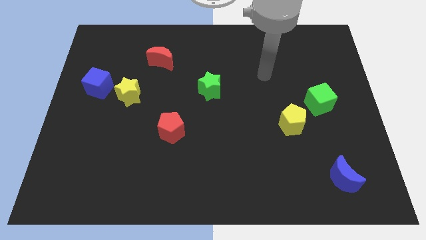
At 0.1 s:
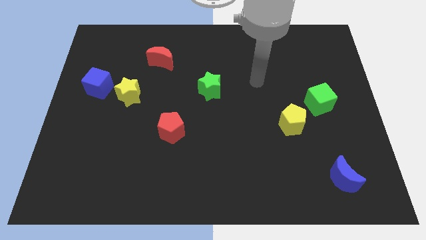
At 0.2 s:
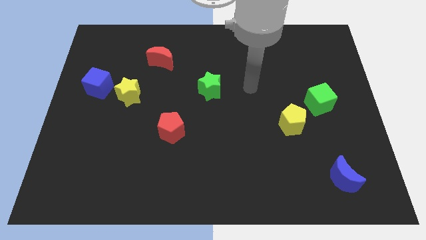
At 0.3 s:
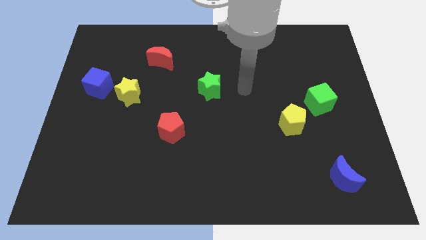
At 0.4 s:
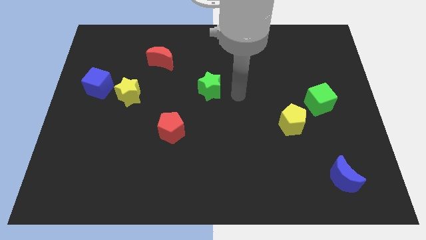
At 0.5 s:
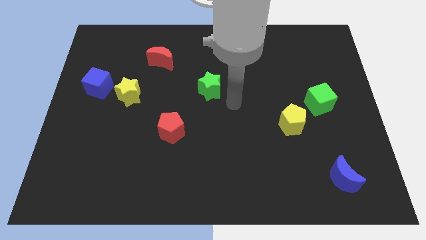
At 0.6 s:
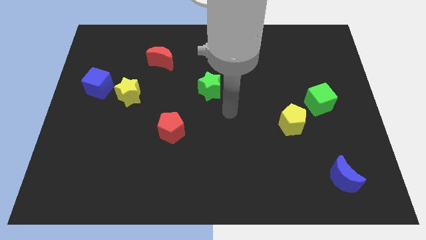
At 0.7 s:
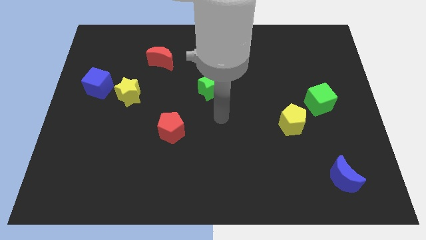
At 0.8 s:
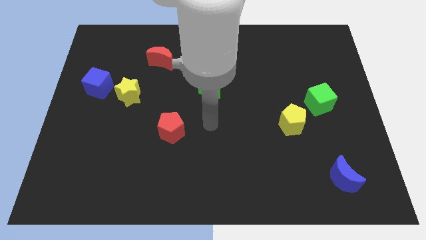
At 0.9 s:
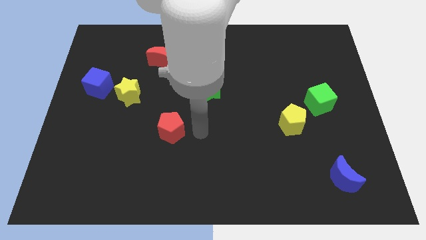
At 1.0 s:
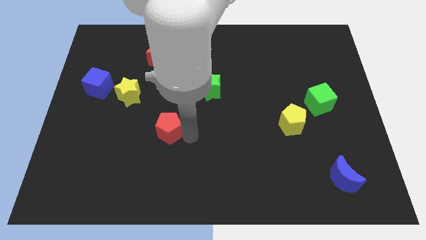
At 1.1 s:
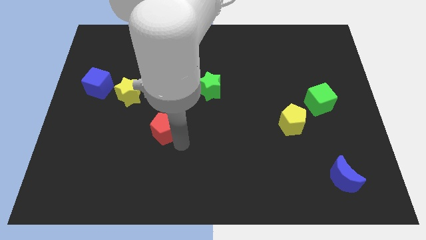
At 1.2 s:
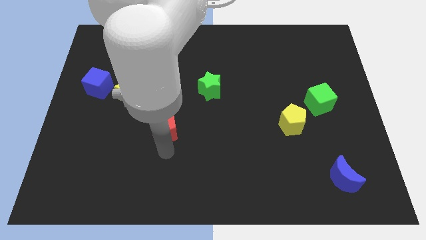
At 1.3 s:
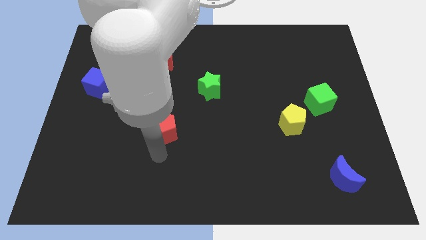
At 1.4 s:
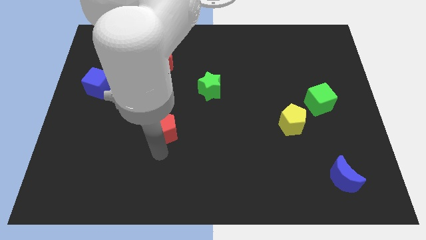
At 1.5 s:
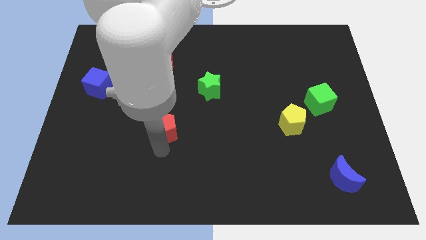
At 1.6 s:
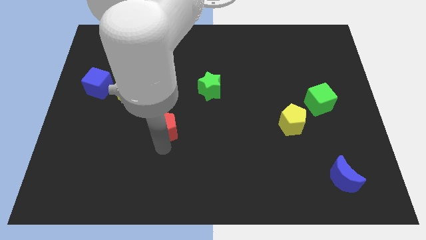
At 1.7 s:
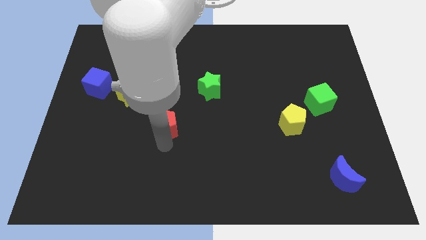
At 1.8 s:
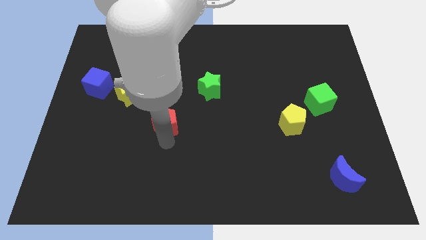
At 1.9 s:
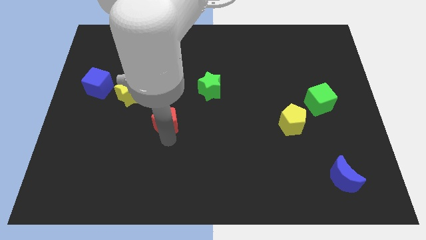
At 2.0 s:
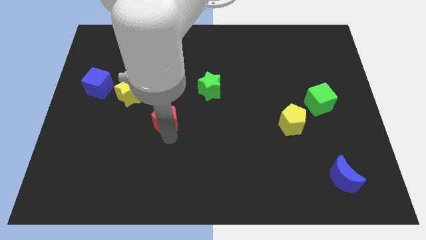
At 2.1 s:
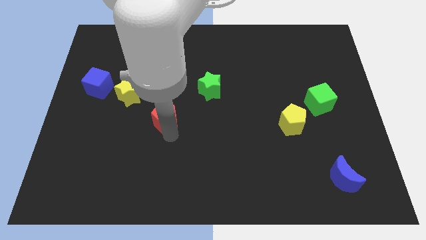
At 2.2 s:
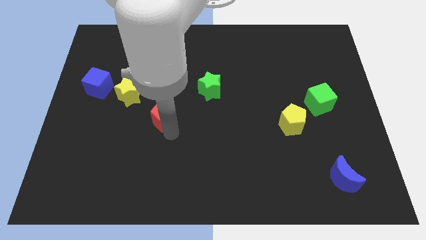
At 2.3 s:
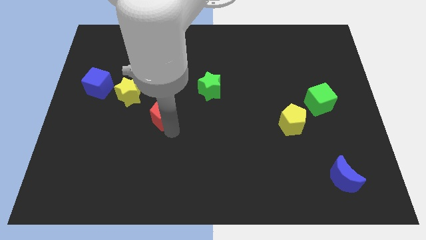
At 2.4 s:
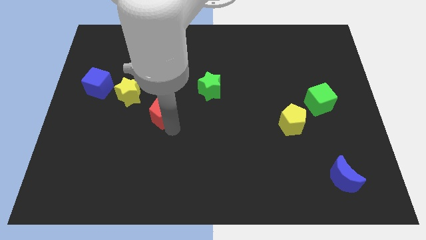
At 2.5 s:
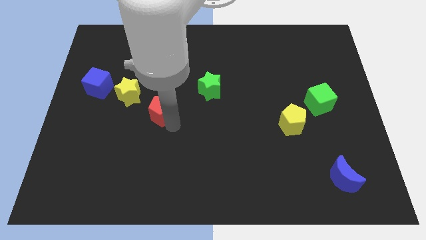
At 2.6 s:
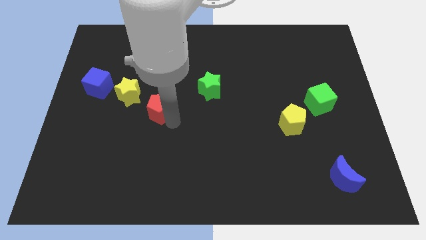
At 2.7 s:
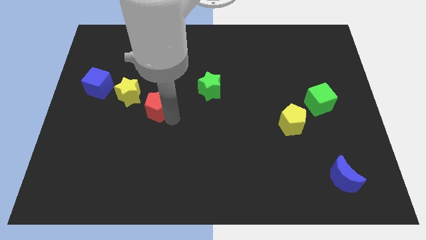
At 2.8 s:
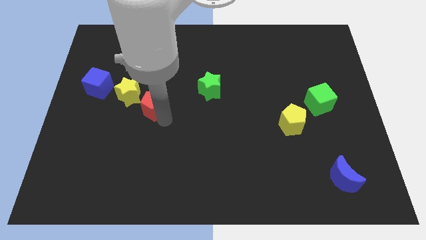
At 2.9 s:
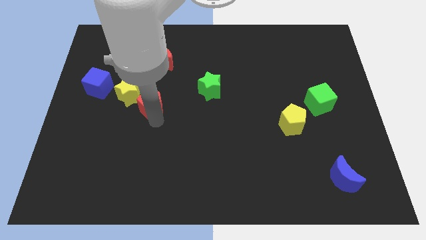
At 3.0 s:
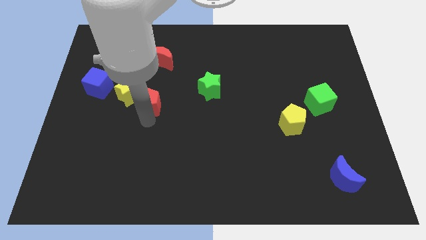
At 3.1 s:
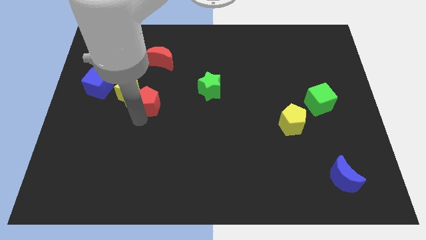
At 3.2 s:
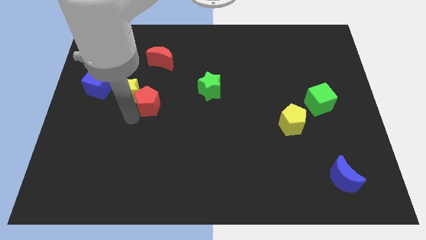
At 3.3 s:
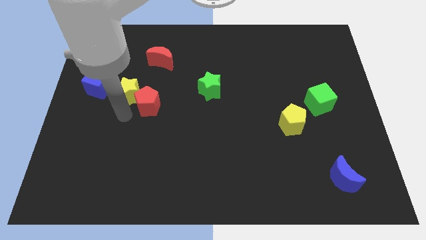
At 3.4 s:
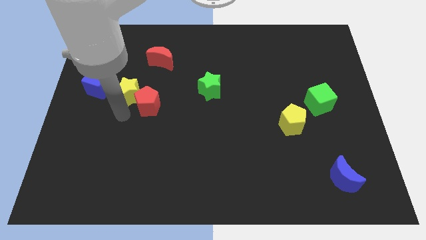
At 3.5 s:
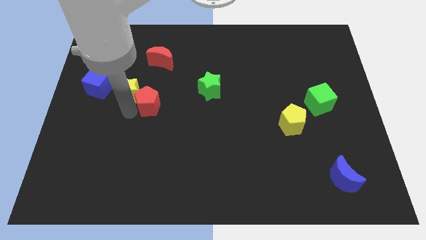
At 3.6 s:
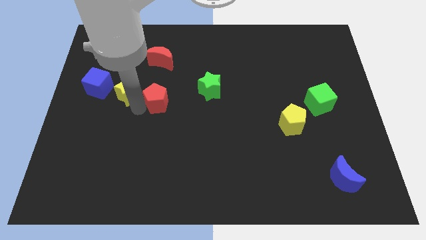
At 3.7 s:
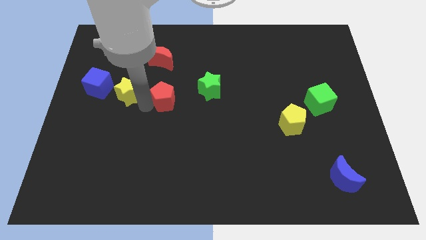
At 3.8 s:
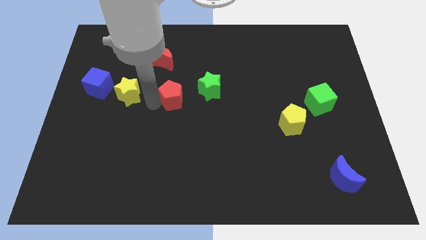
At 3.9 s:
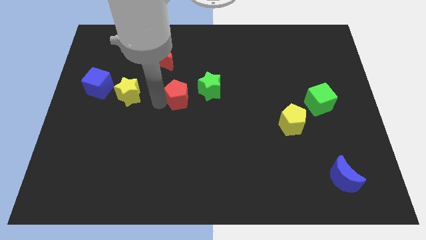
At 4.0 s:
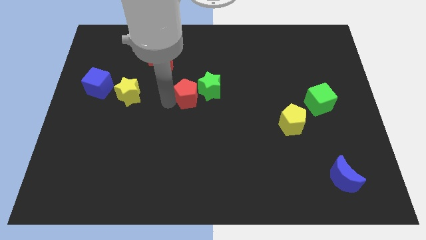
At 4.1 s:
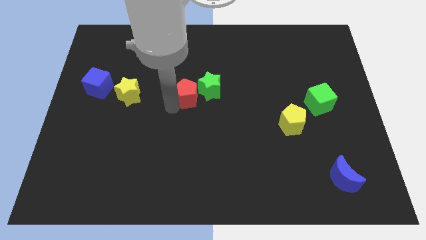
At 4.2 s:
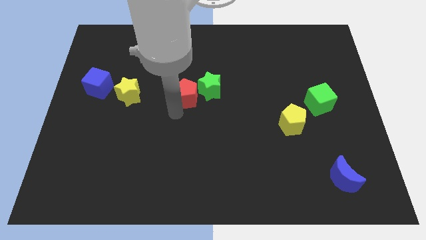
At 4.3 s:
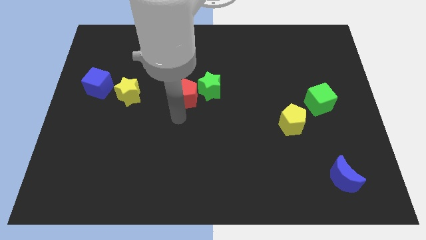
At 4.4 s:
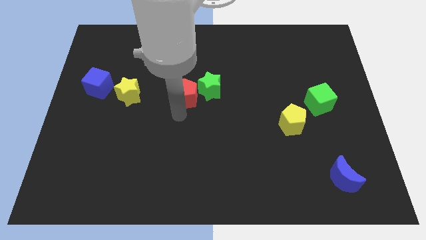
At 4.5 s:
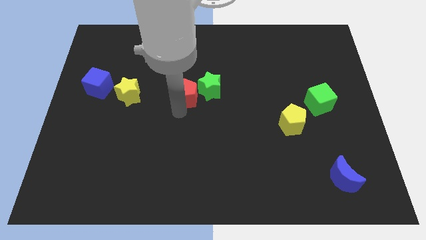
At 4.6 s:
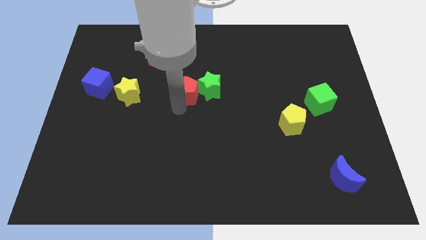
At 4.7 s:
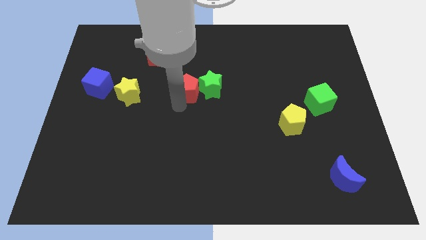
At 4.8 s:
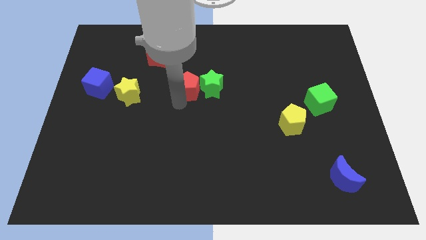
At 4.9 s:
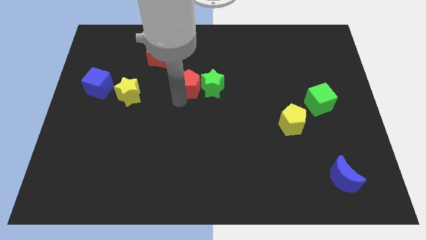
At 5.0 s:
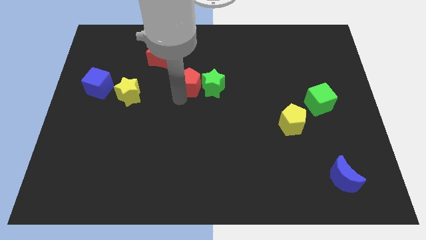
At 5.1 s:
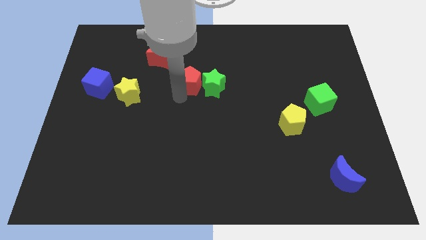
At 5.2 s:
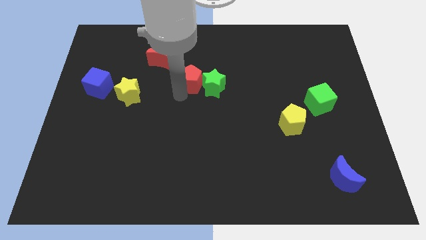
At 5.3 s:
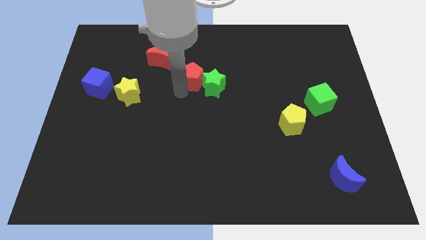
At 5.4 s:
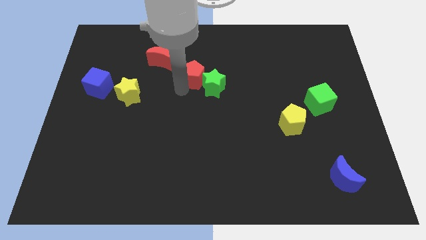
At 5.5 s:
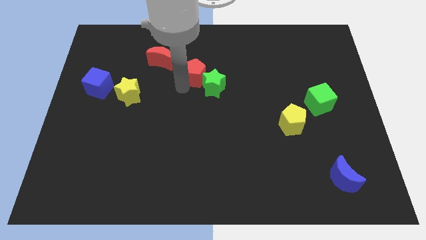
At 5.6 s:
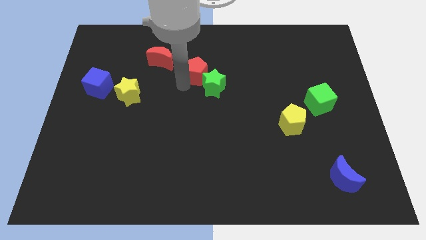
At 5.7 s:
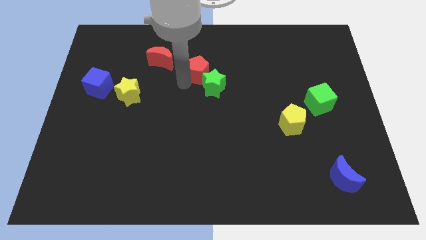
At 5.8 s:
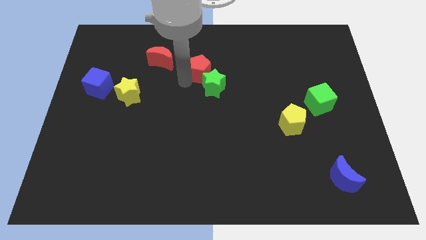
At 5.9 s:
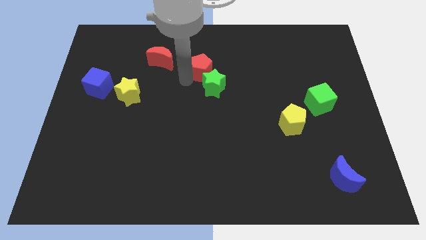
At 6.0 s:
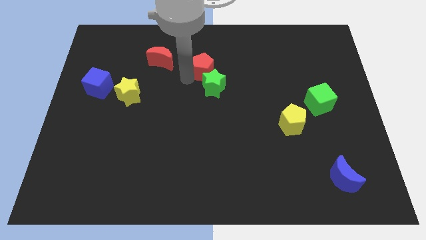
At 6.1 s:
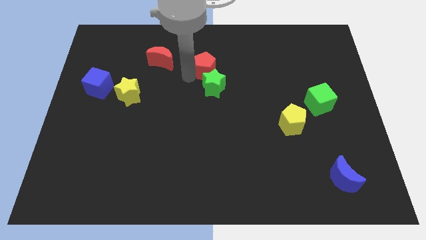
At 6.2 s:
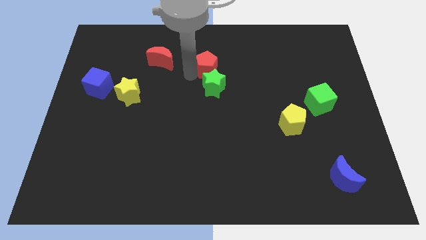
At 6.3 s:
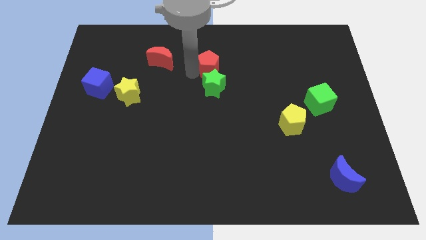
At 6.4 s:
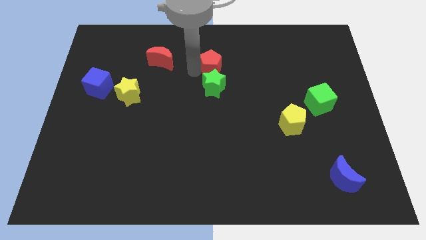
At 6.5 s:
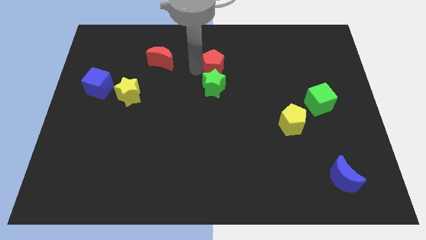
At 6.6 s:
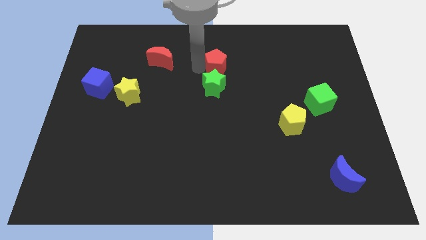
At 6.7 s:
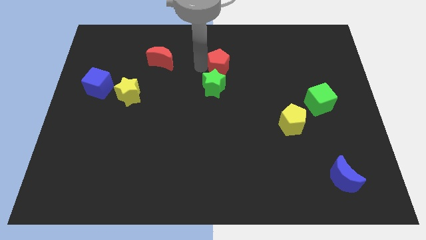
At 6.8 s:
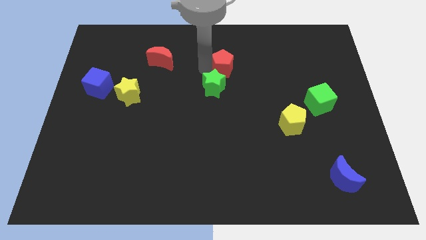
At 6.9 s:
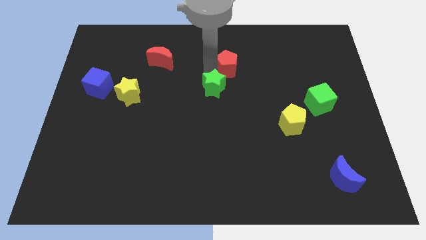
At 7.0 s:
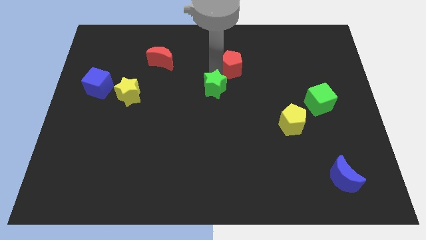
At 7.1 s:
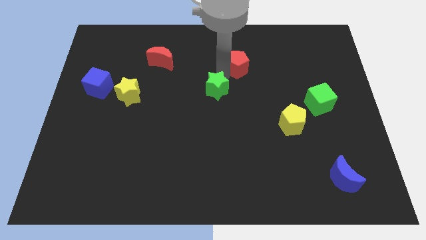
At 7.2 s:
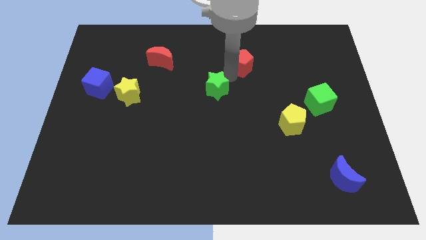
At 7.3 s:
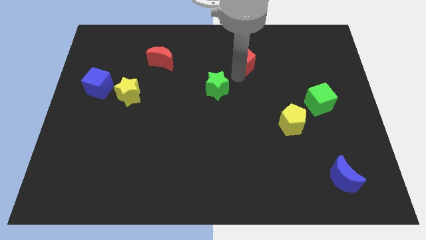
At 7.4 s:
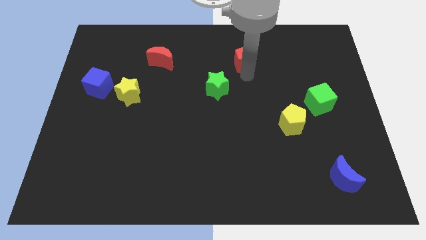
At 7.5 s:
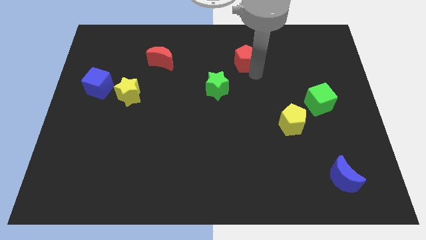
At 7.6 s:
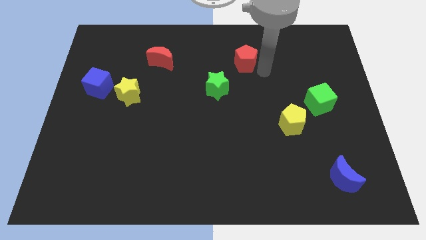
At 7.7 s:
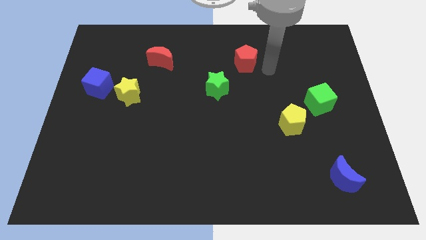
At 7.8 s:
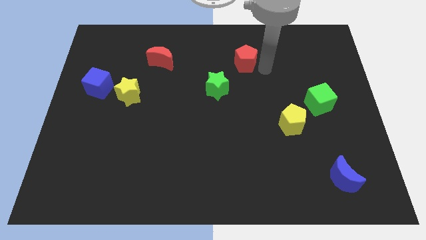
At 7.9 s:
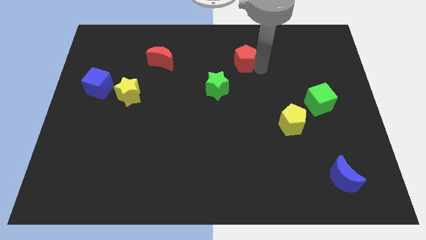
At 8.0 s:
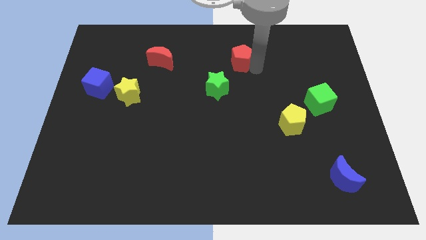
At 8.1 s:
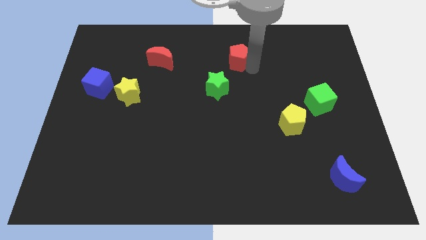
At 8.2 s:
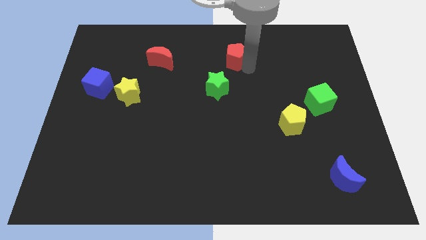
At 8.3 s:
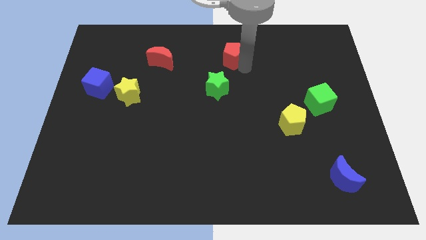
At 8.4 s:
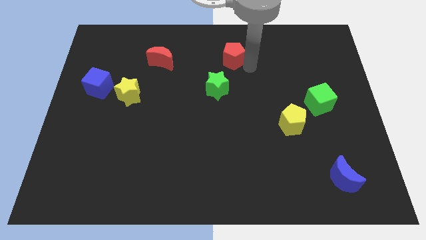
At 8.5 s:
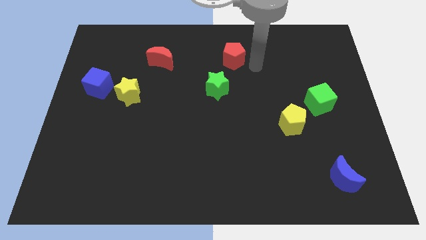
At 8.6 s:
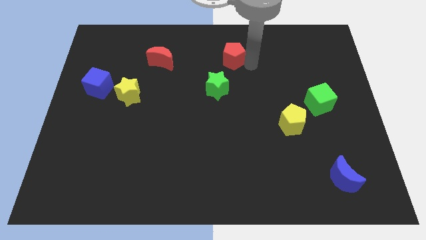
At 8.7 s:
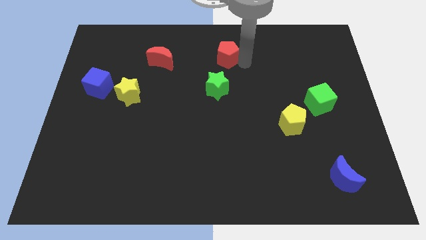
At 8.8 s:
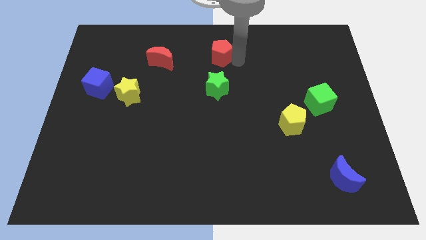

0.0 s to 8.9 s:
push the red pentagon to the towards your base
